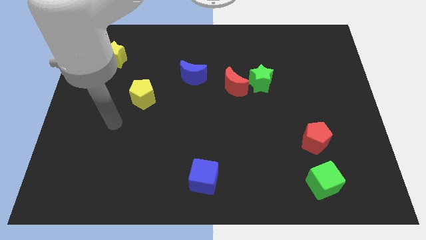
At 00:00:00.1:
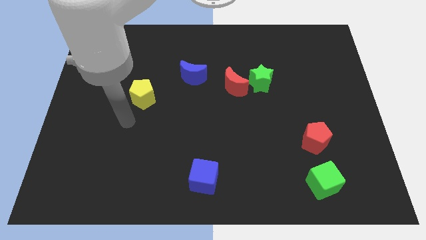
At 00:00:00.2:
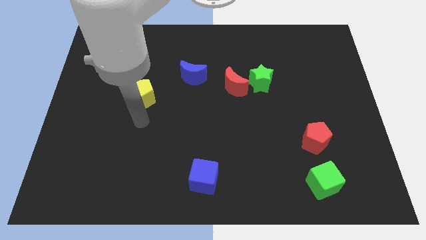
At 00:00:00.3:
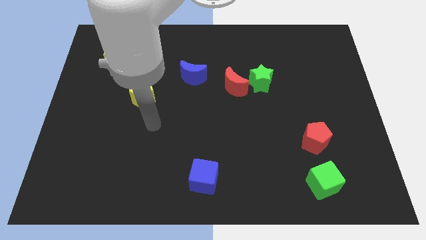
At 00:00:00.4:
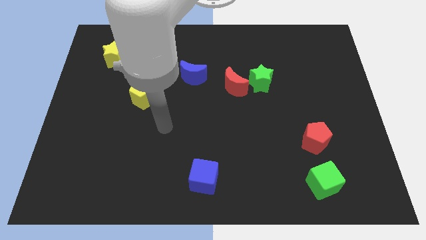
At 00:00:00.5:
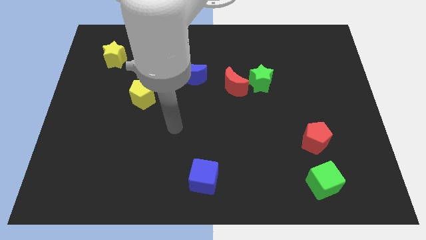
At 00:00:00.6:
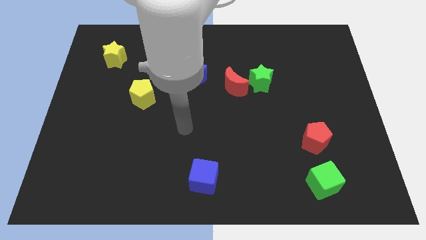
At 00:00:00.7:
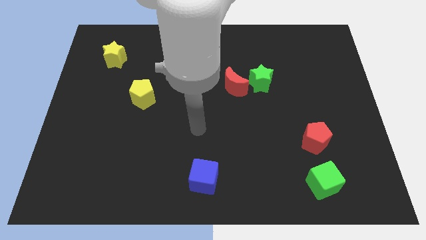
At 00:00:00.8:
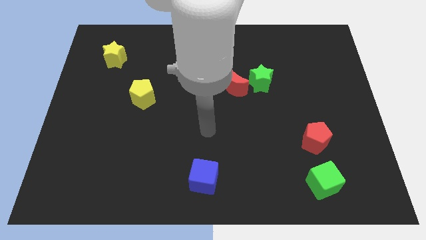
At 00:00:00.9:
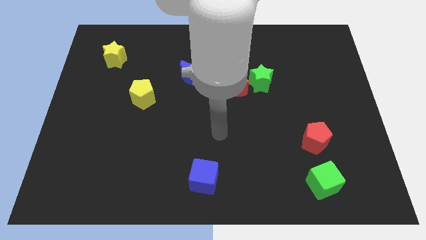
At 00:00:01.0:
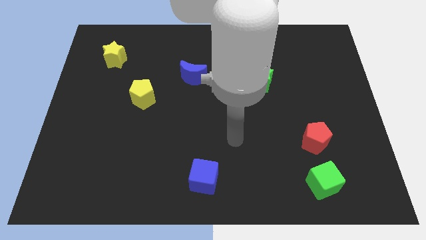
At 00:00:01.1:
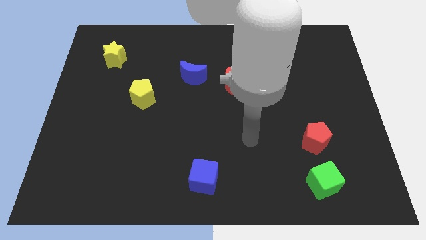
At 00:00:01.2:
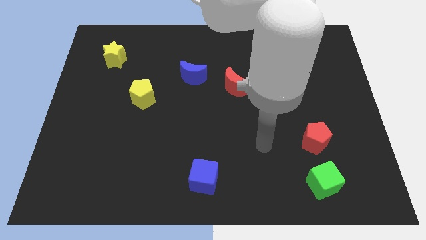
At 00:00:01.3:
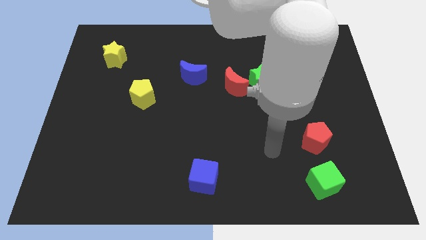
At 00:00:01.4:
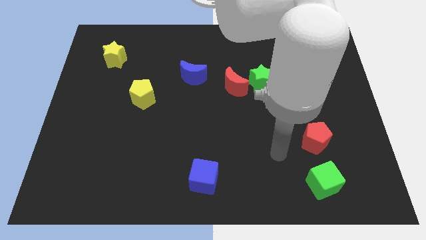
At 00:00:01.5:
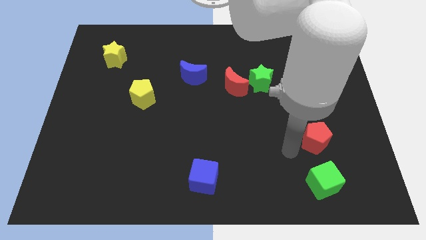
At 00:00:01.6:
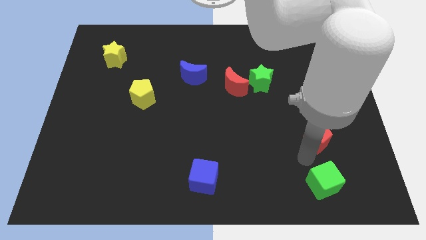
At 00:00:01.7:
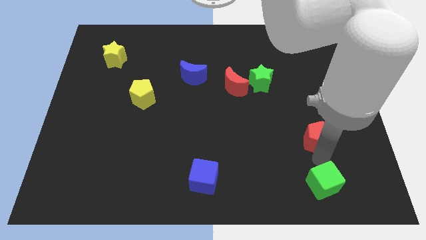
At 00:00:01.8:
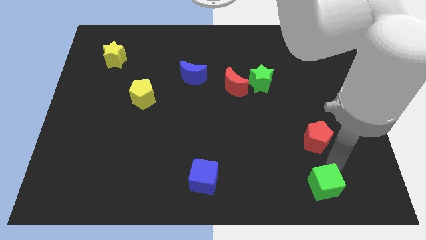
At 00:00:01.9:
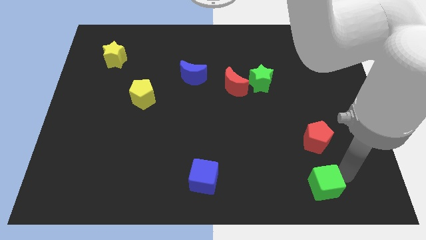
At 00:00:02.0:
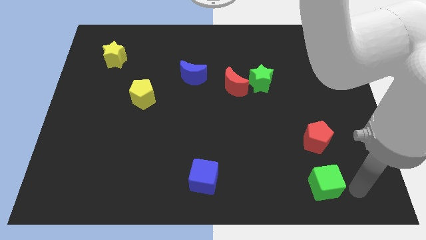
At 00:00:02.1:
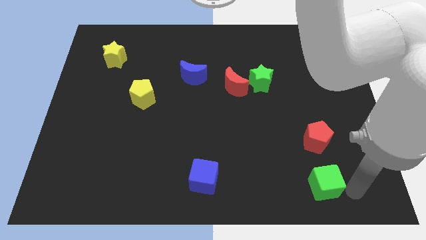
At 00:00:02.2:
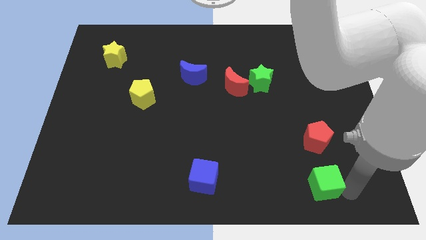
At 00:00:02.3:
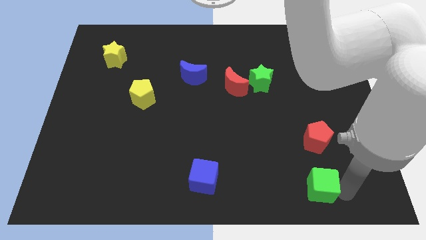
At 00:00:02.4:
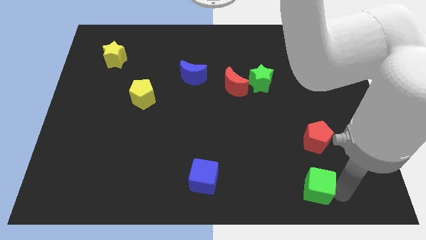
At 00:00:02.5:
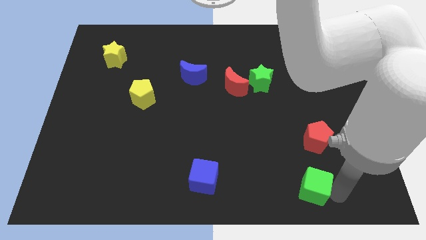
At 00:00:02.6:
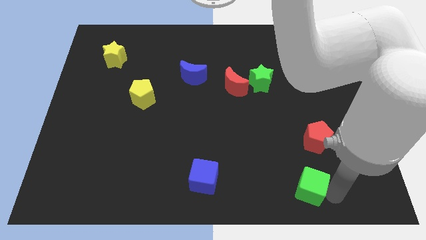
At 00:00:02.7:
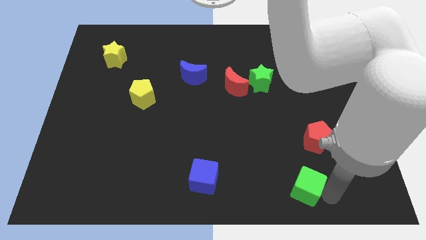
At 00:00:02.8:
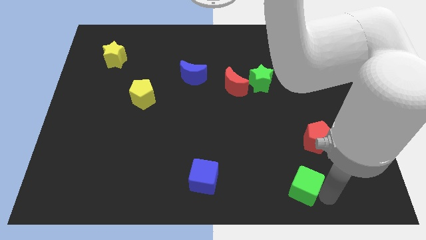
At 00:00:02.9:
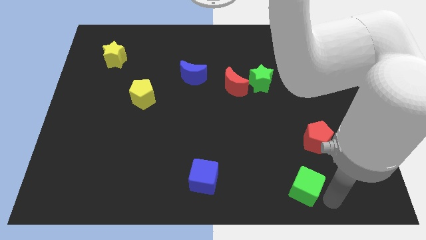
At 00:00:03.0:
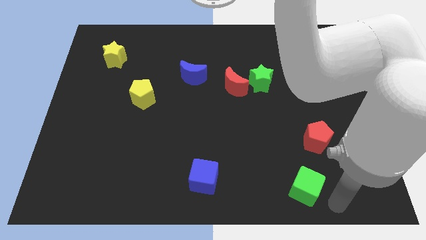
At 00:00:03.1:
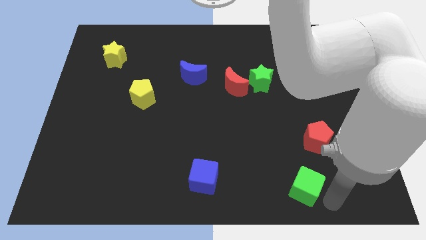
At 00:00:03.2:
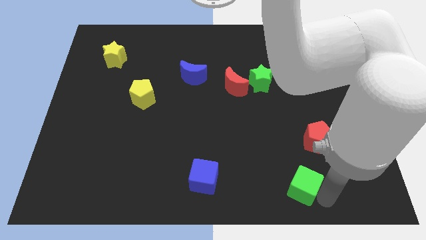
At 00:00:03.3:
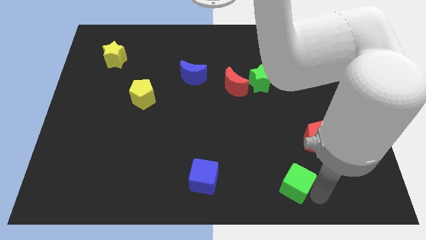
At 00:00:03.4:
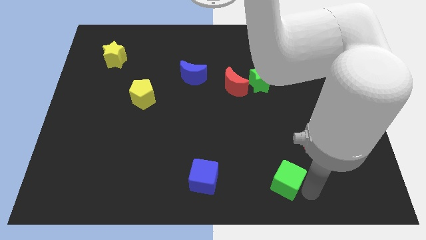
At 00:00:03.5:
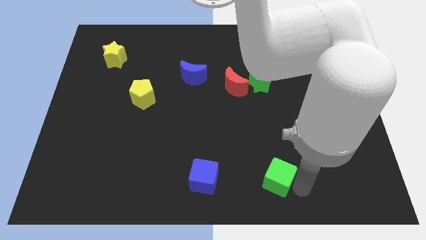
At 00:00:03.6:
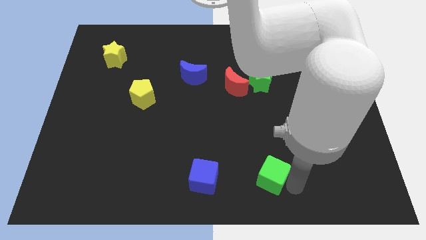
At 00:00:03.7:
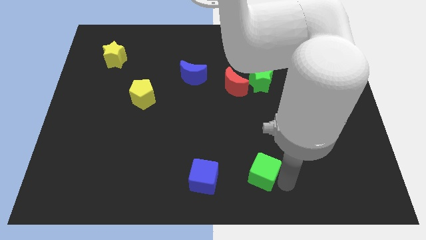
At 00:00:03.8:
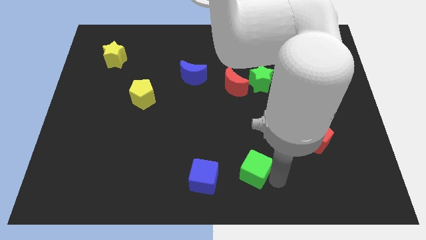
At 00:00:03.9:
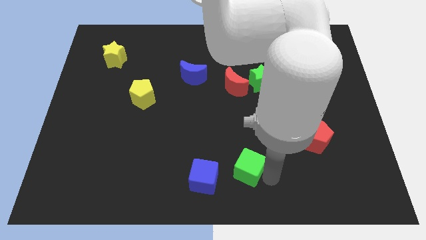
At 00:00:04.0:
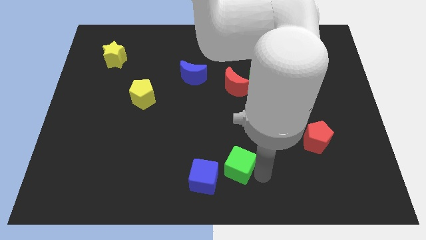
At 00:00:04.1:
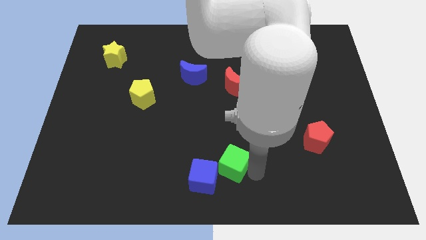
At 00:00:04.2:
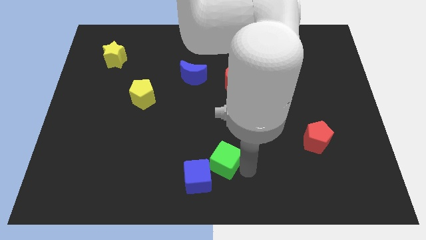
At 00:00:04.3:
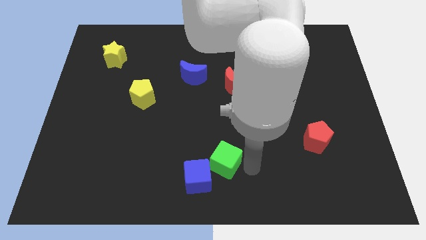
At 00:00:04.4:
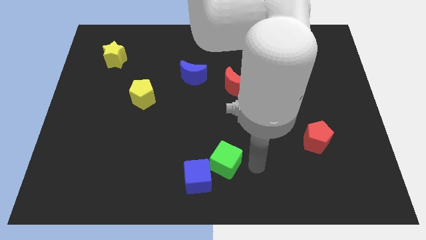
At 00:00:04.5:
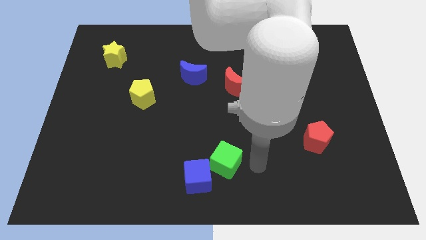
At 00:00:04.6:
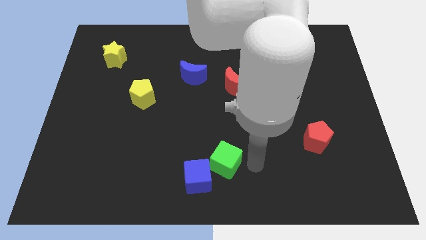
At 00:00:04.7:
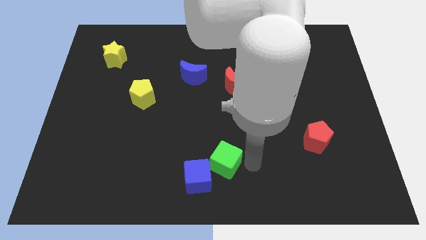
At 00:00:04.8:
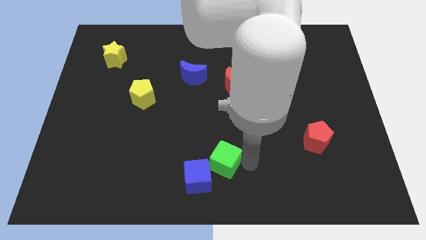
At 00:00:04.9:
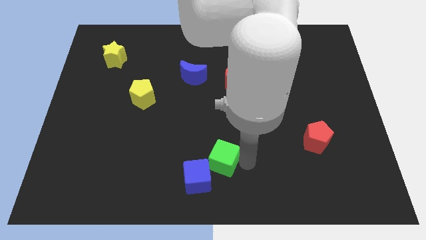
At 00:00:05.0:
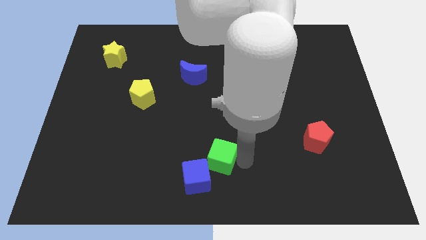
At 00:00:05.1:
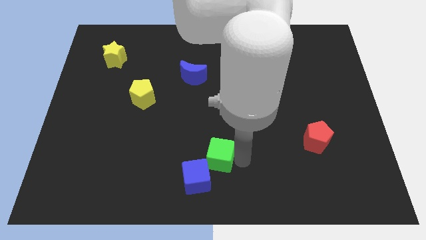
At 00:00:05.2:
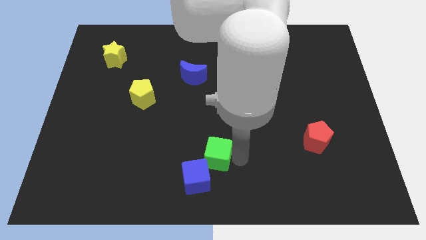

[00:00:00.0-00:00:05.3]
slide the green cube to the left

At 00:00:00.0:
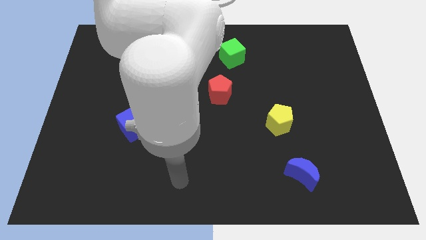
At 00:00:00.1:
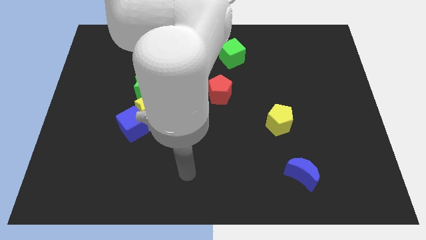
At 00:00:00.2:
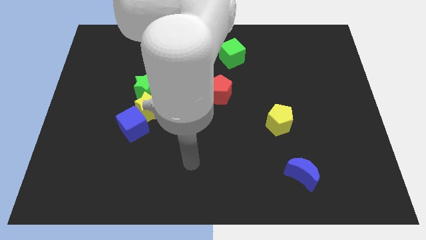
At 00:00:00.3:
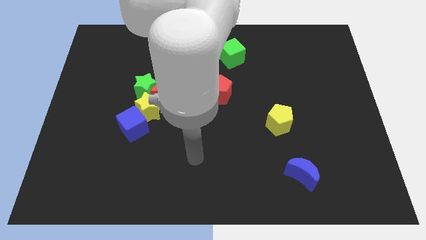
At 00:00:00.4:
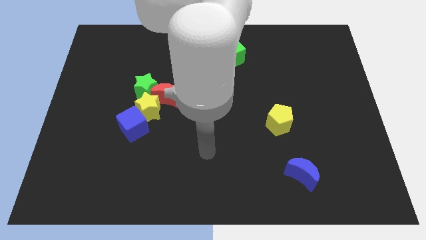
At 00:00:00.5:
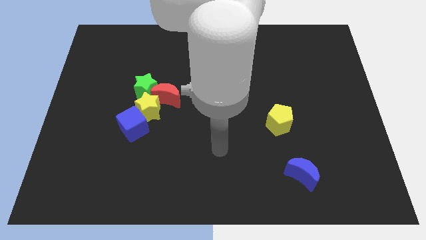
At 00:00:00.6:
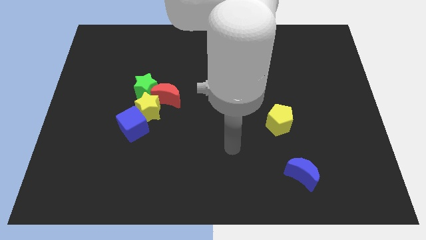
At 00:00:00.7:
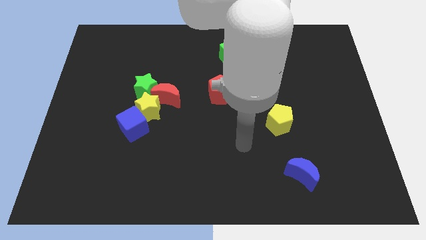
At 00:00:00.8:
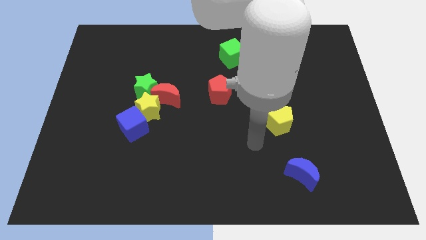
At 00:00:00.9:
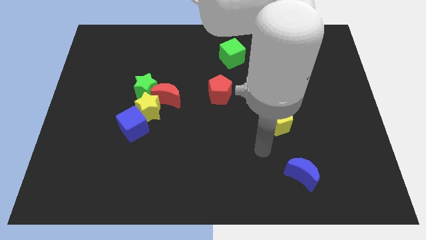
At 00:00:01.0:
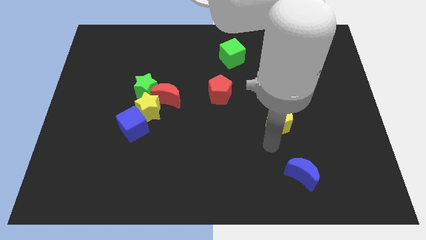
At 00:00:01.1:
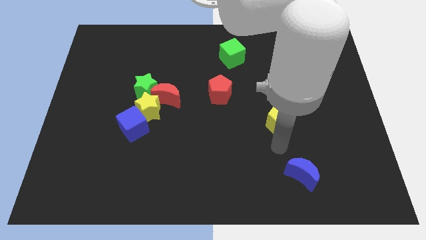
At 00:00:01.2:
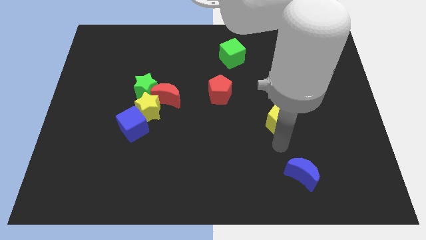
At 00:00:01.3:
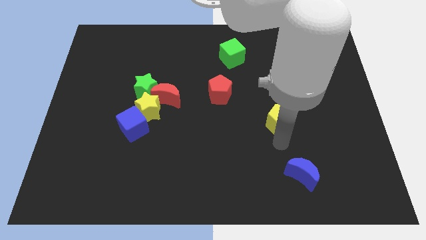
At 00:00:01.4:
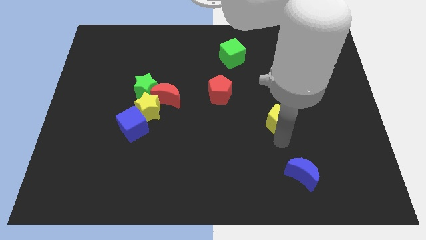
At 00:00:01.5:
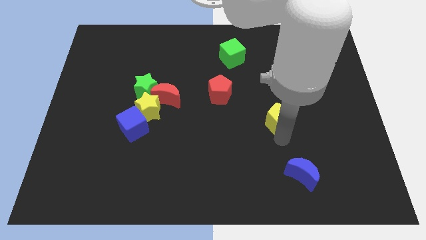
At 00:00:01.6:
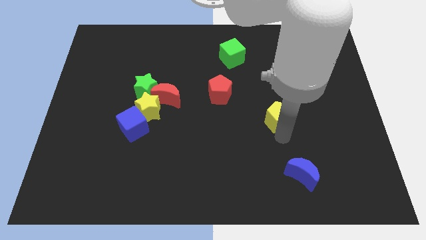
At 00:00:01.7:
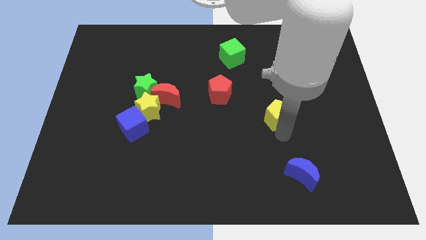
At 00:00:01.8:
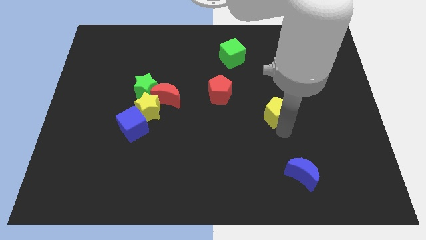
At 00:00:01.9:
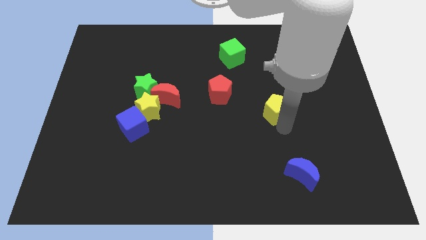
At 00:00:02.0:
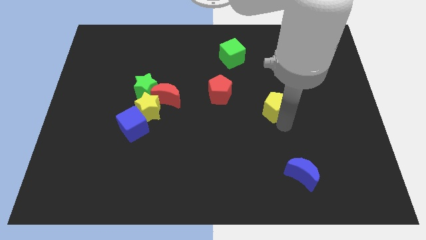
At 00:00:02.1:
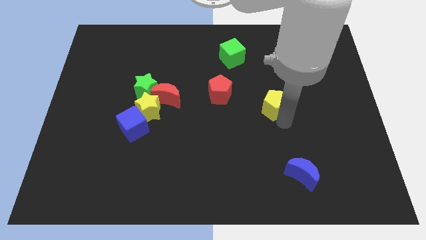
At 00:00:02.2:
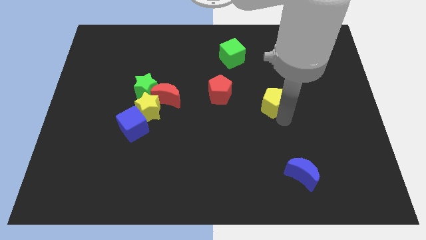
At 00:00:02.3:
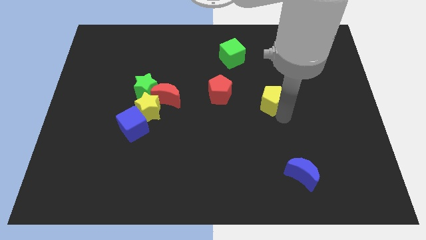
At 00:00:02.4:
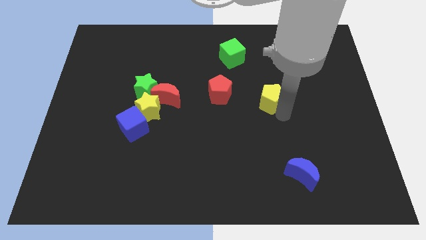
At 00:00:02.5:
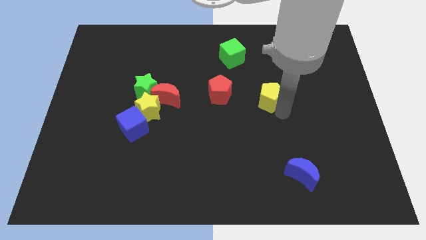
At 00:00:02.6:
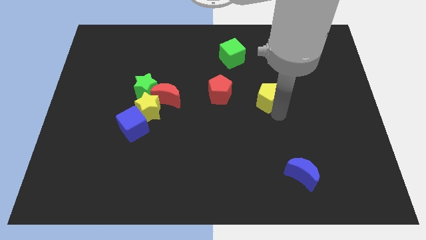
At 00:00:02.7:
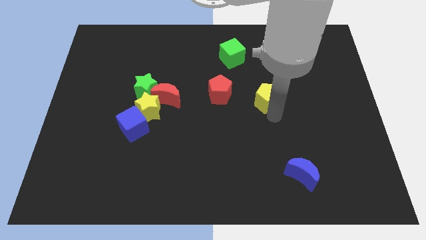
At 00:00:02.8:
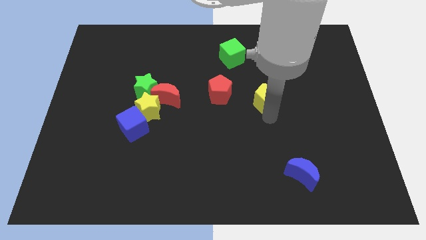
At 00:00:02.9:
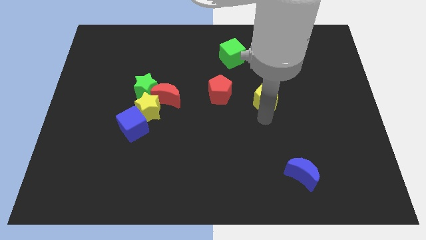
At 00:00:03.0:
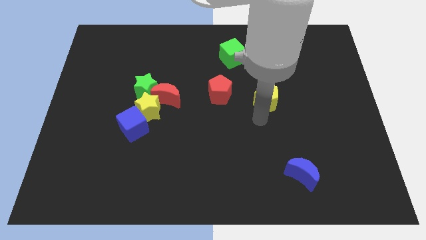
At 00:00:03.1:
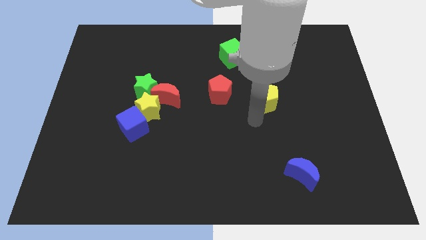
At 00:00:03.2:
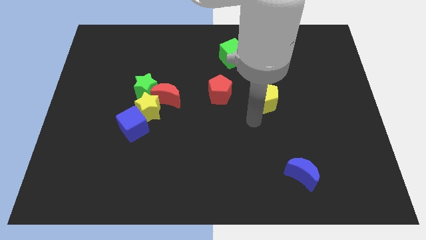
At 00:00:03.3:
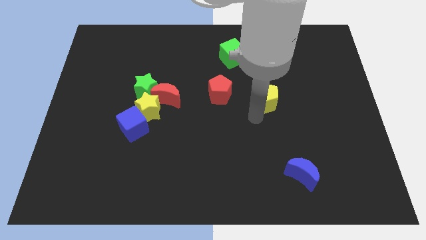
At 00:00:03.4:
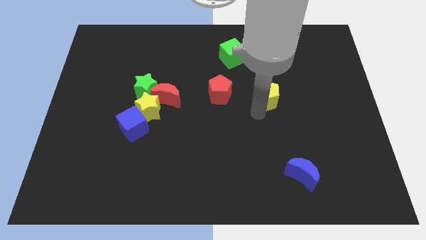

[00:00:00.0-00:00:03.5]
slightly slide the yellow pentagon upwards
